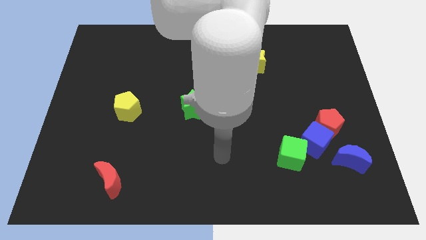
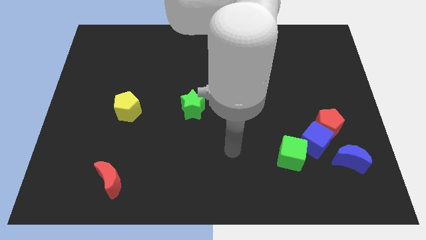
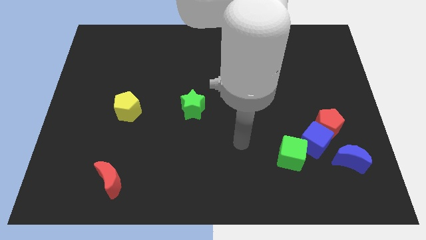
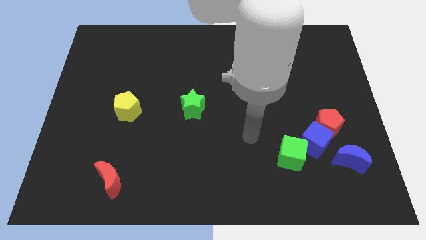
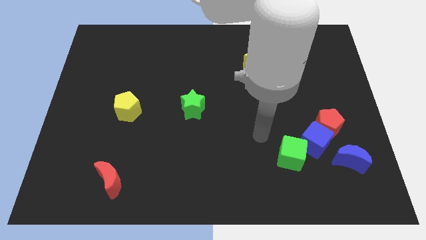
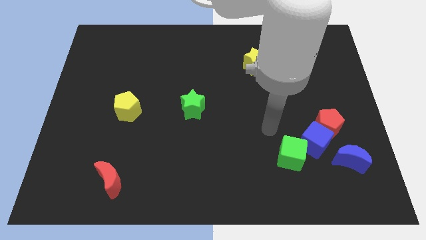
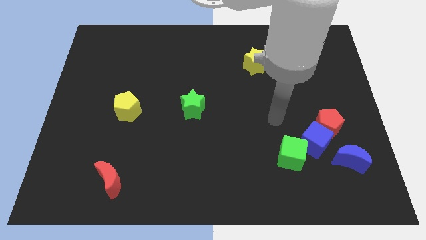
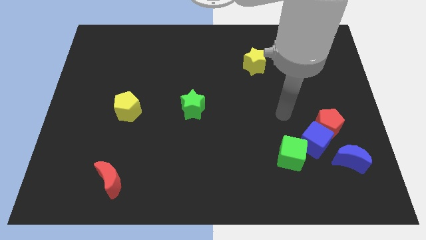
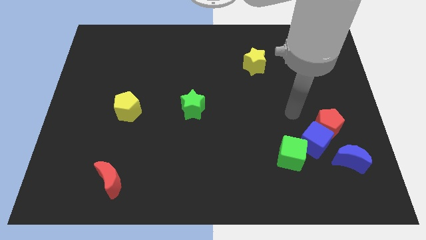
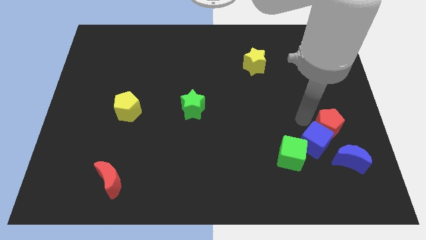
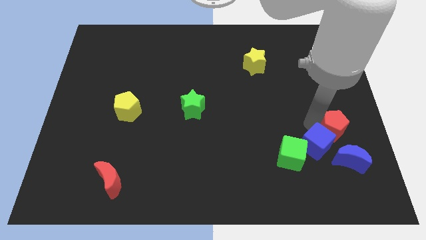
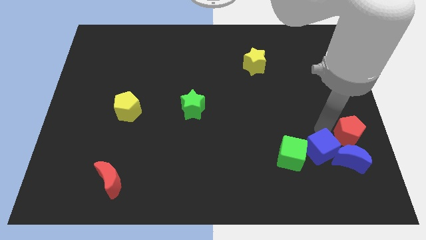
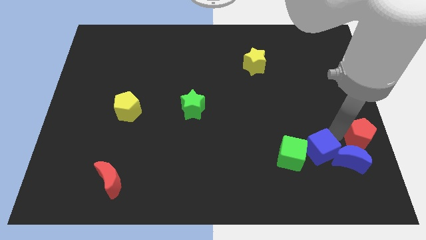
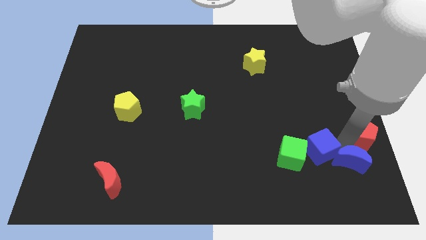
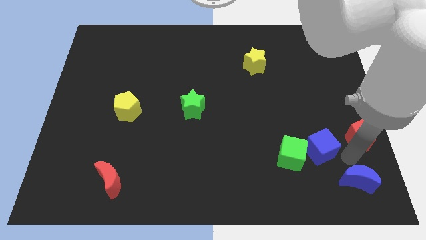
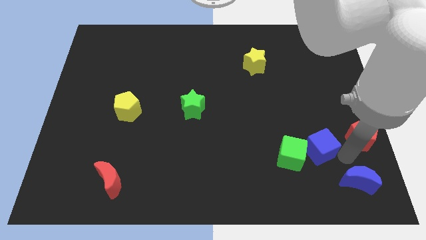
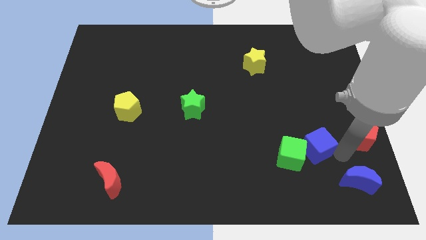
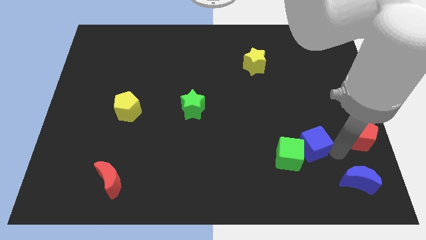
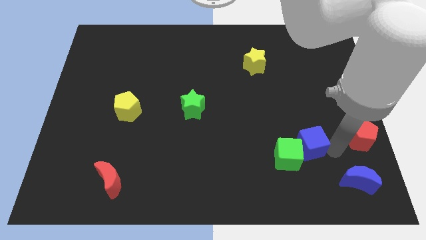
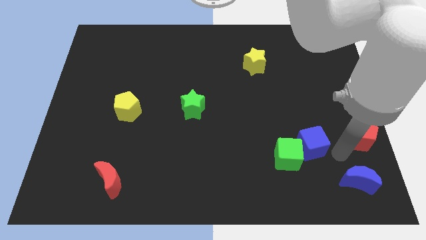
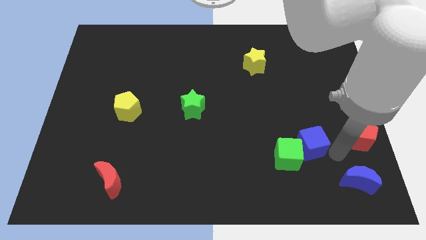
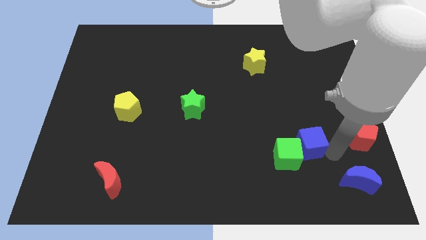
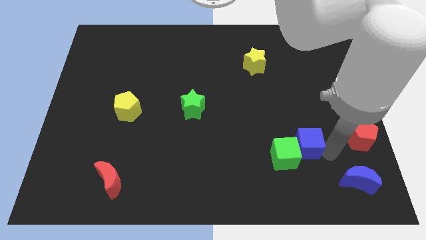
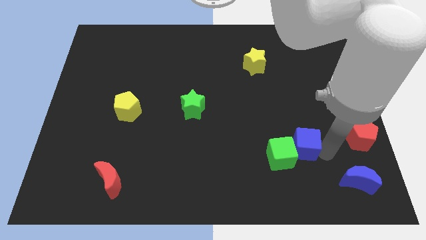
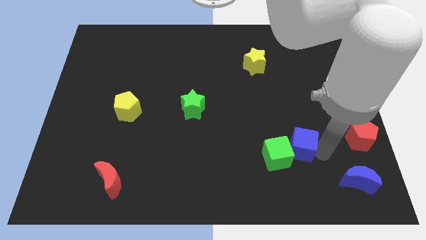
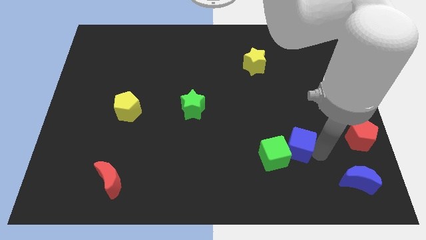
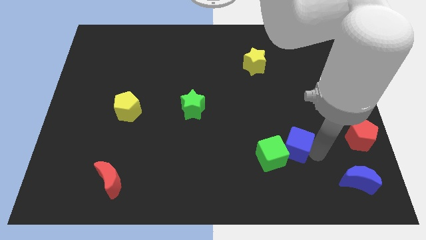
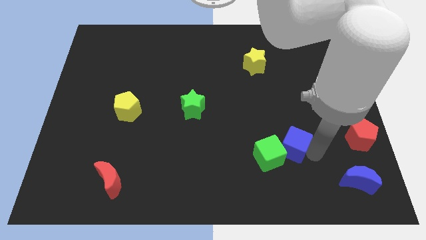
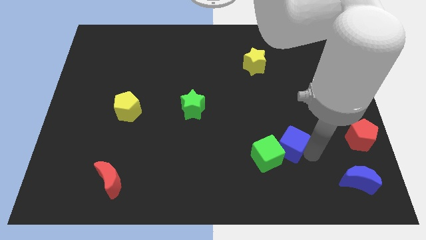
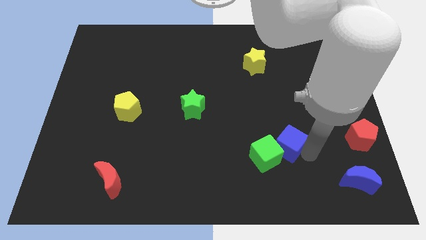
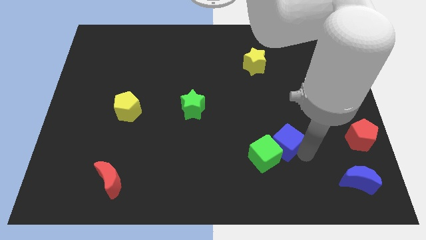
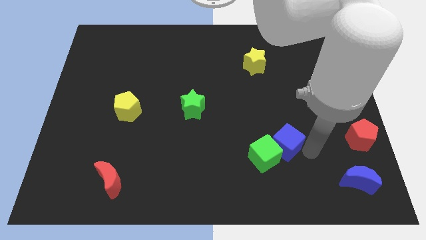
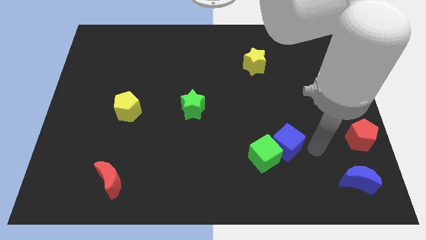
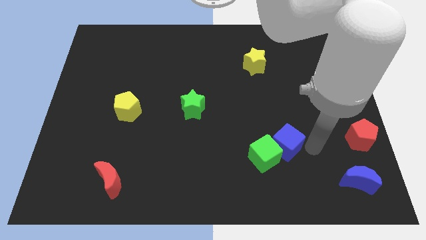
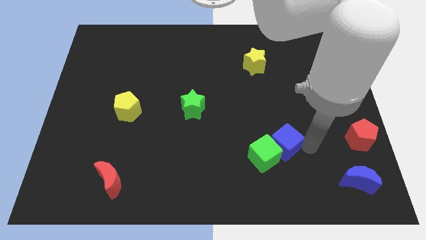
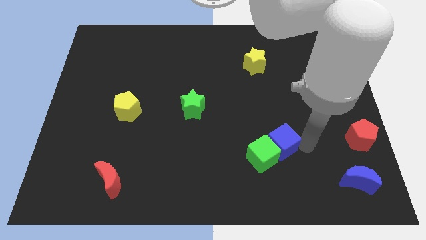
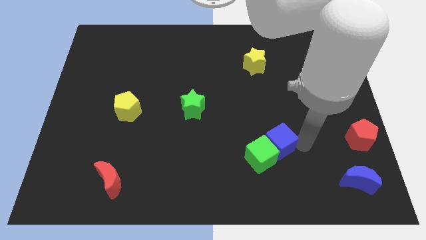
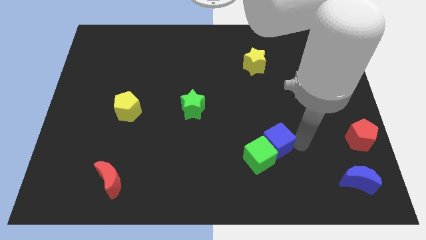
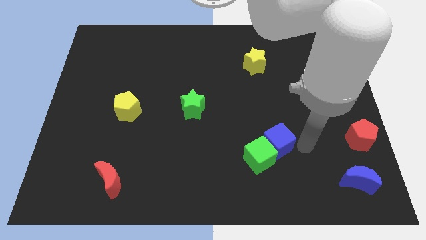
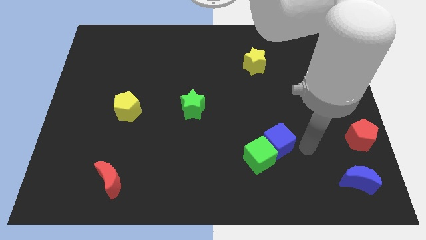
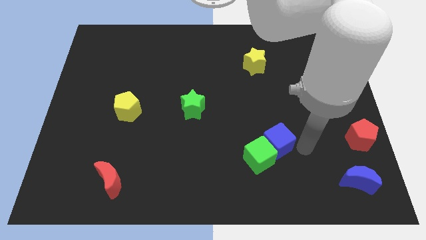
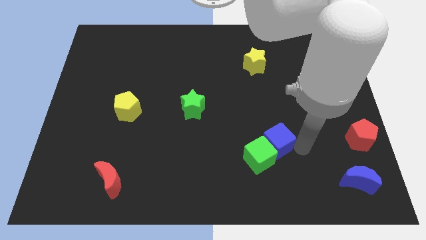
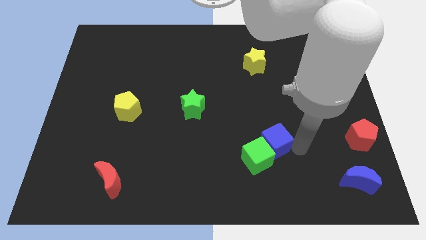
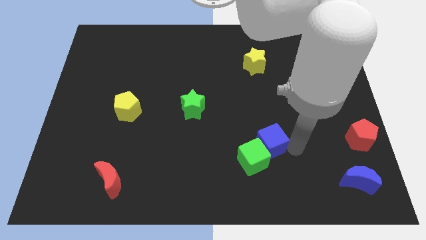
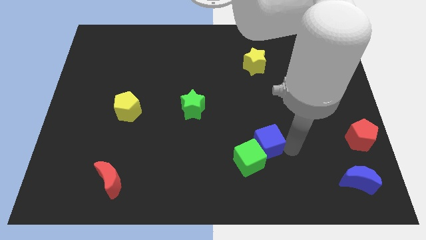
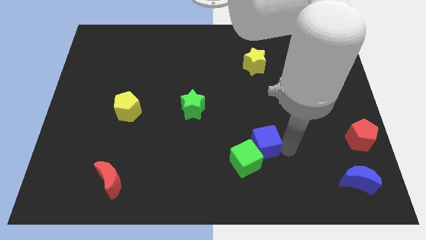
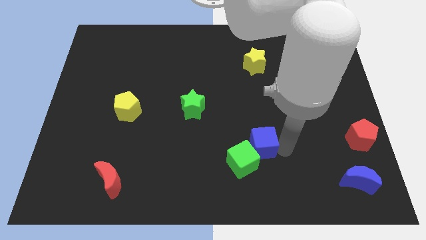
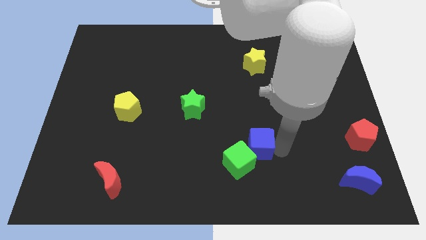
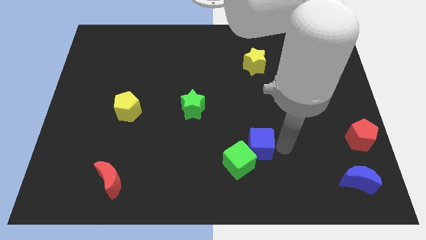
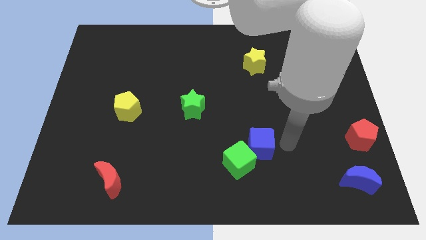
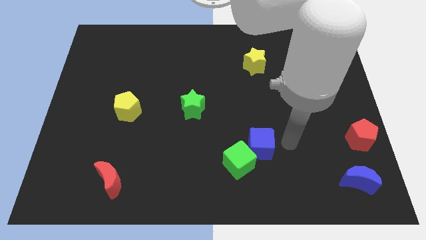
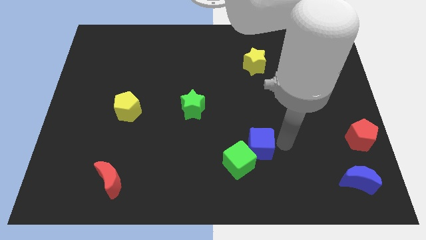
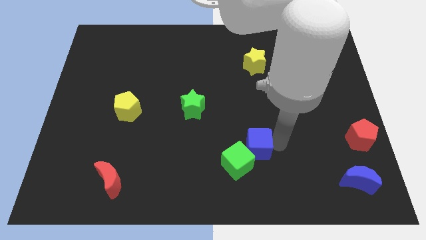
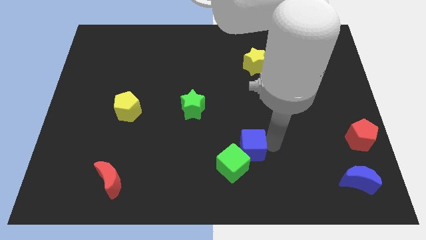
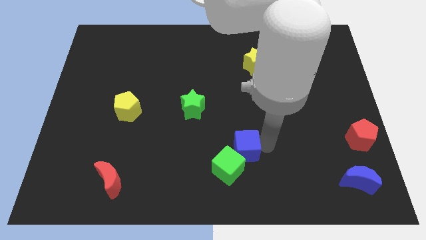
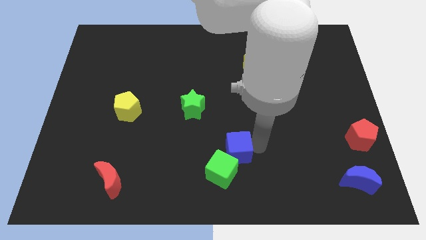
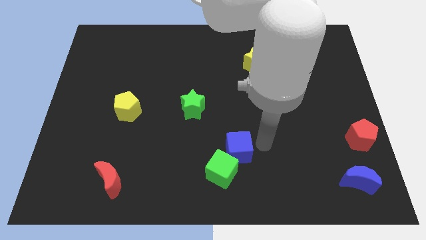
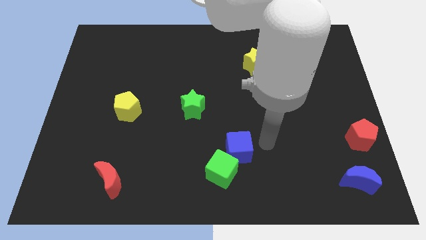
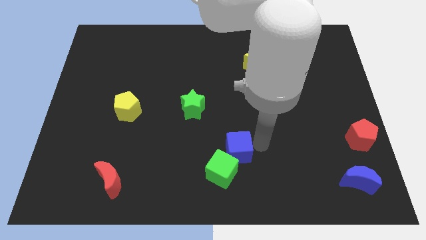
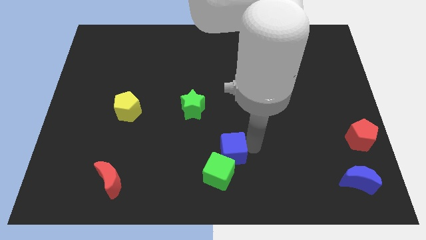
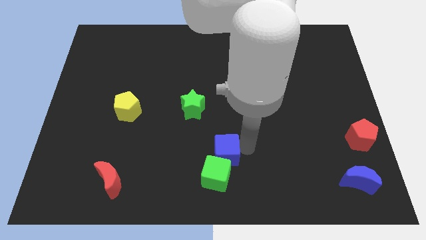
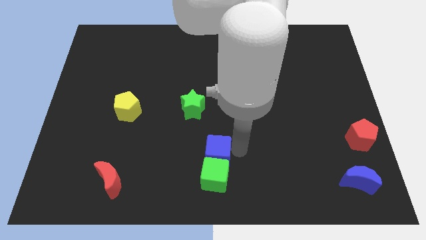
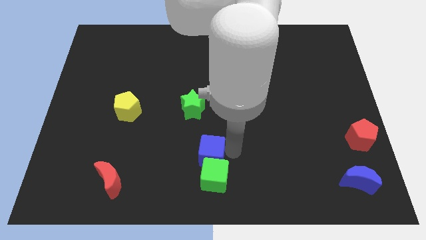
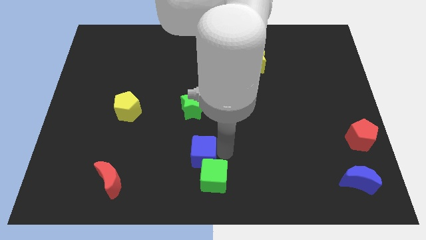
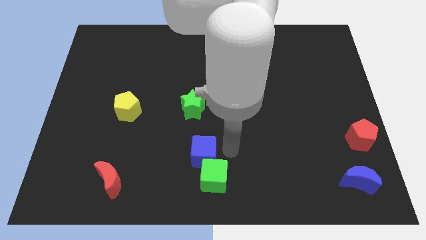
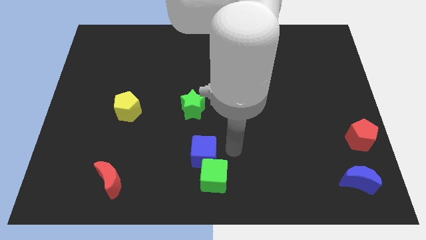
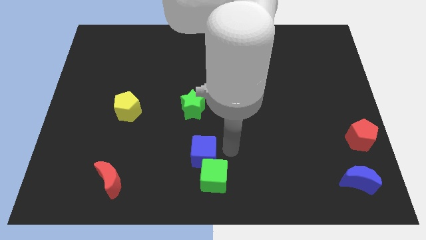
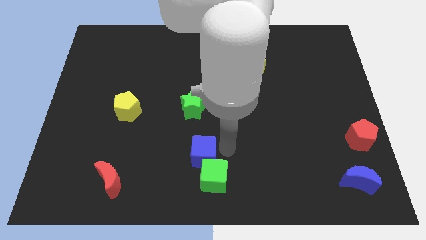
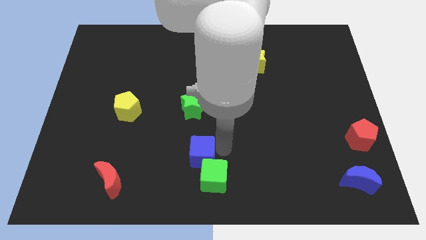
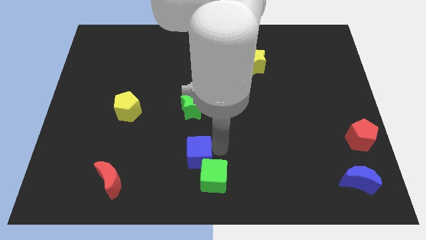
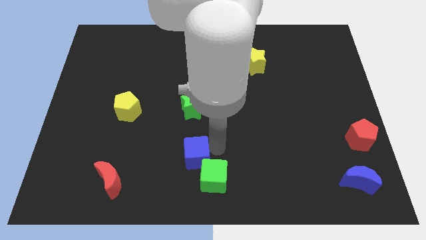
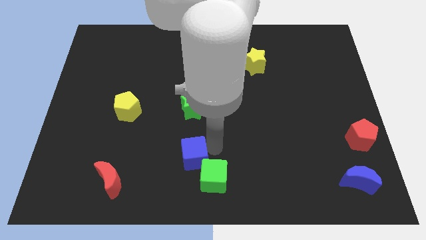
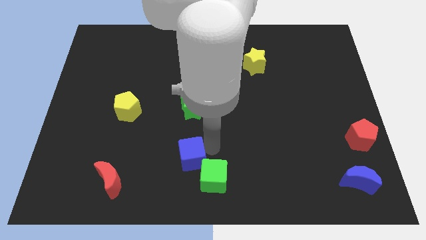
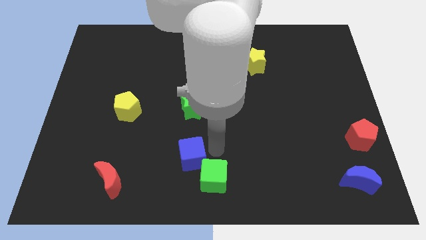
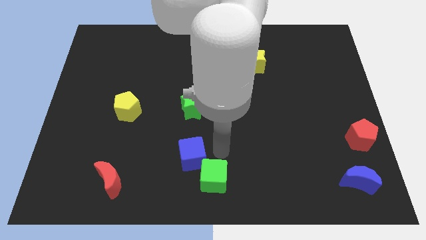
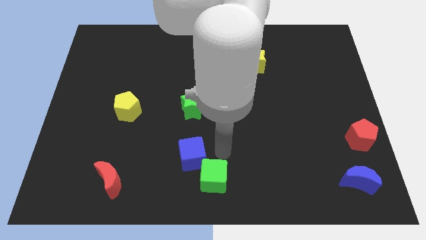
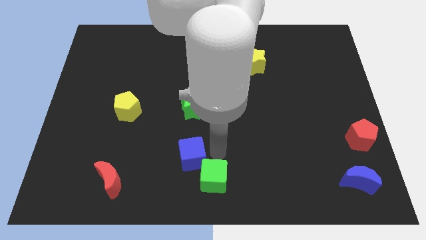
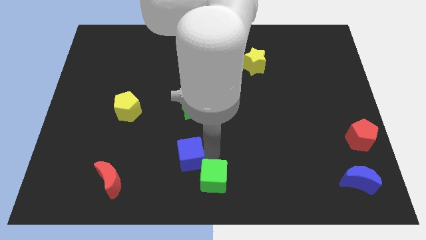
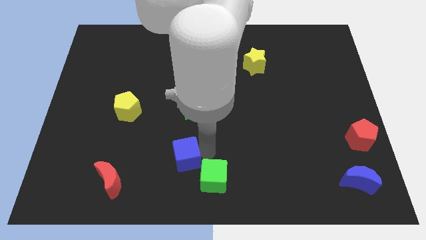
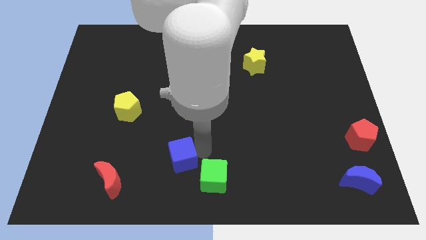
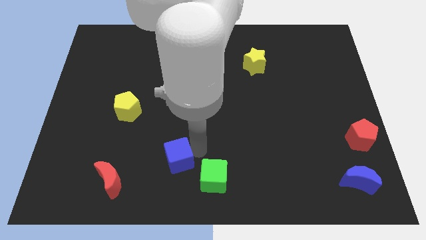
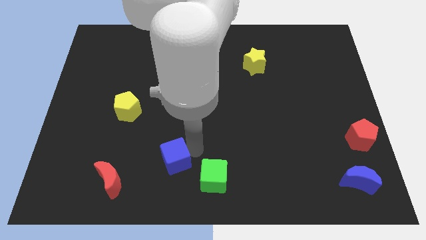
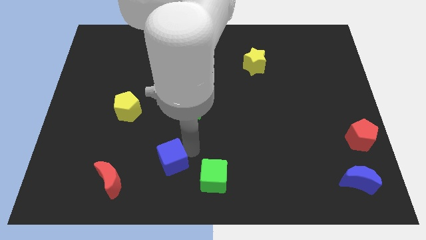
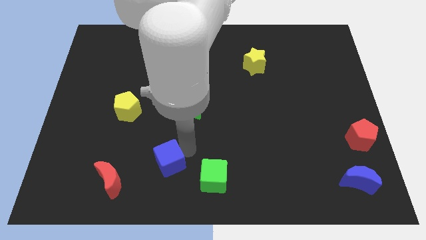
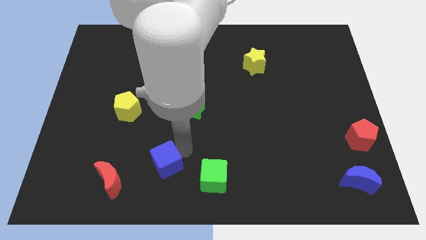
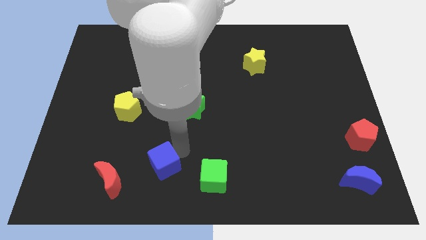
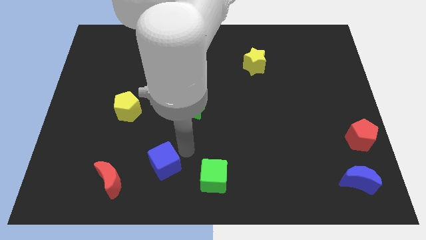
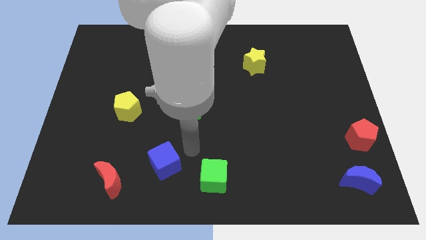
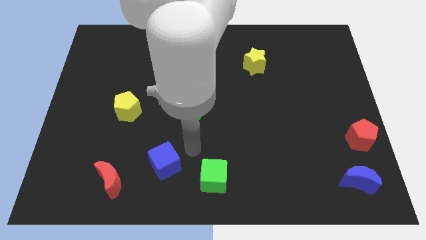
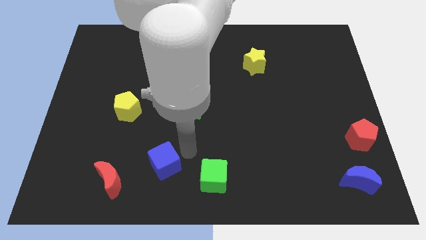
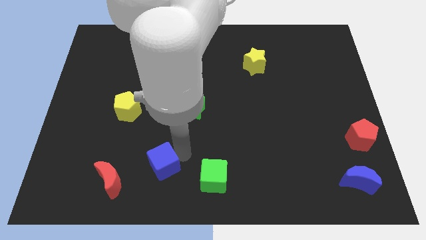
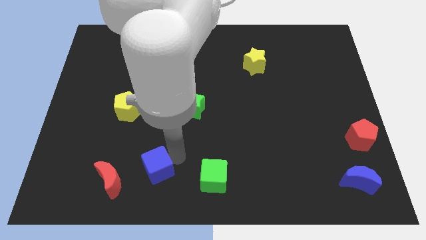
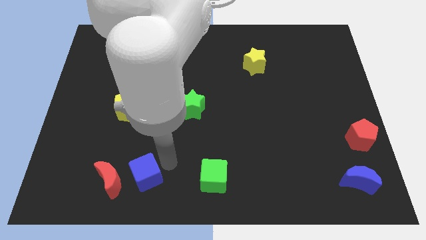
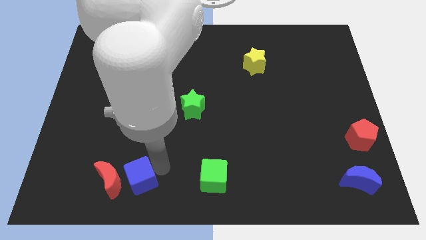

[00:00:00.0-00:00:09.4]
push the blue cube towards the red moon
